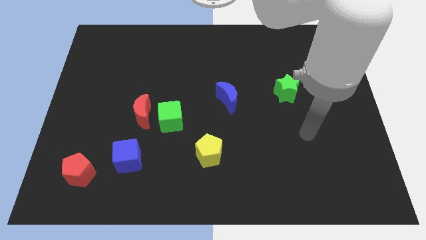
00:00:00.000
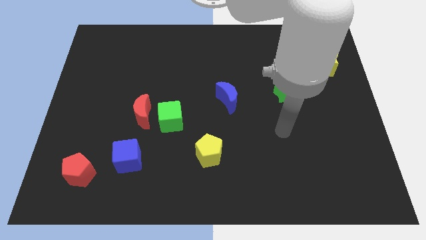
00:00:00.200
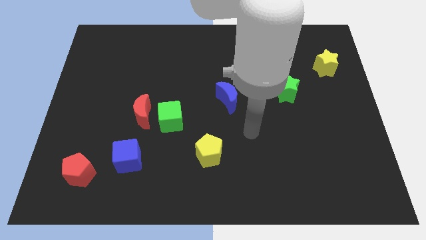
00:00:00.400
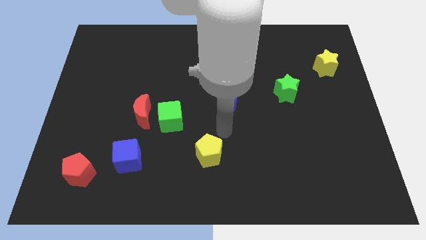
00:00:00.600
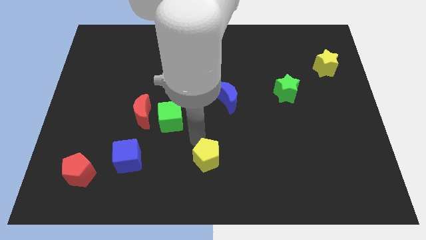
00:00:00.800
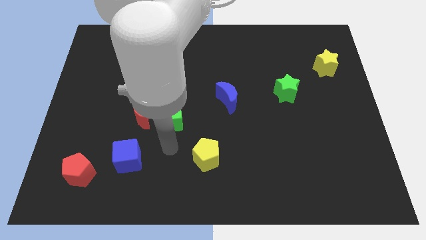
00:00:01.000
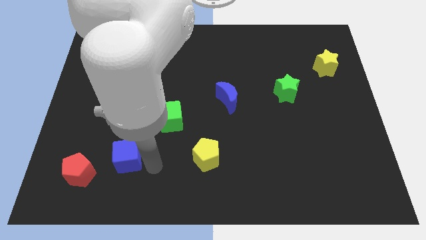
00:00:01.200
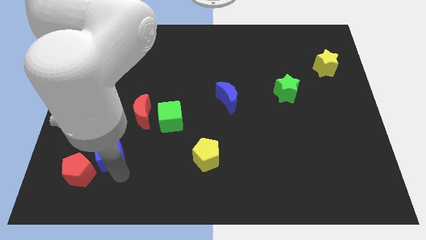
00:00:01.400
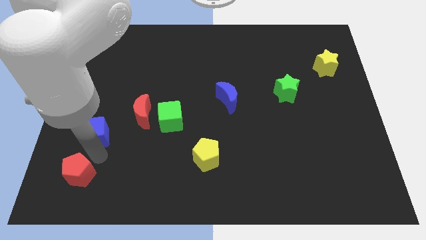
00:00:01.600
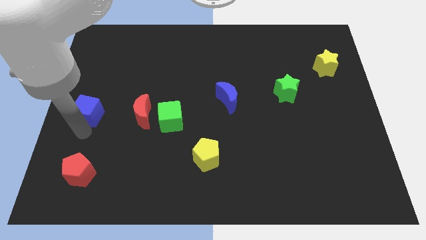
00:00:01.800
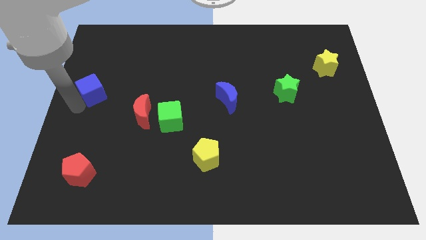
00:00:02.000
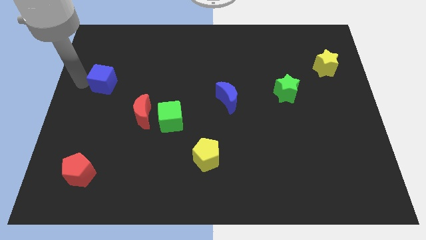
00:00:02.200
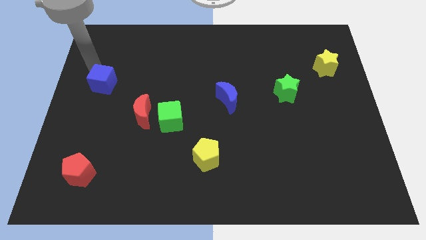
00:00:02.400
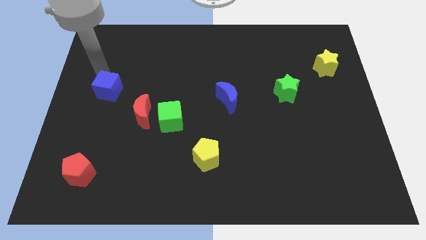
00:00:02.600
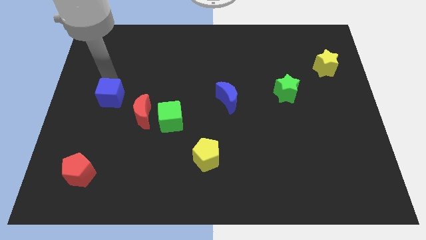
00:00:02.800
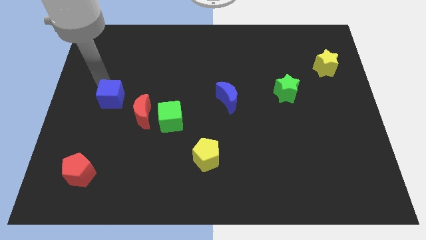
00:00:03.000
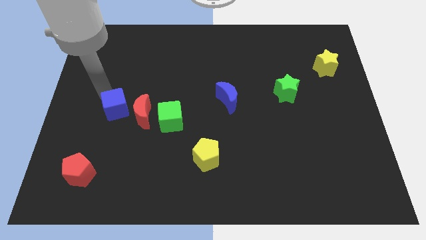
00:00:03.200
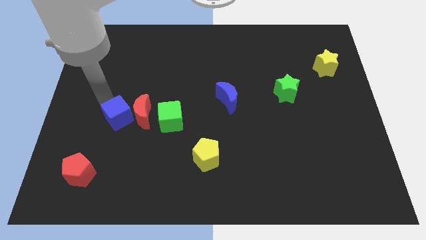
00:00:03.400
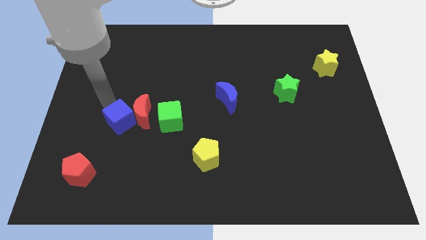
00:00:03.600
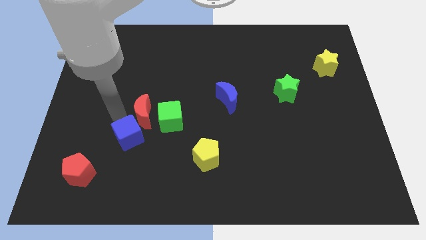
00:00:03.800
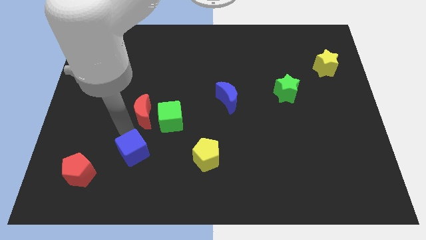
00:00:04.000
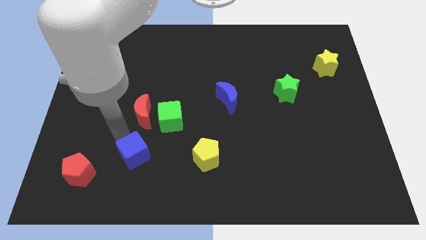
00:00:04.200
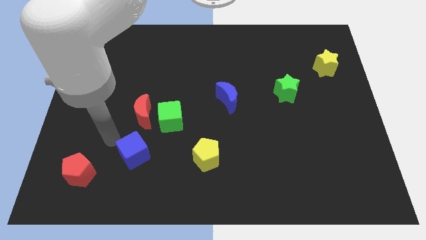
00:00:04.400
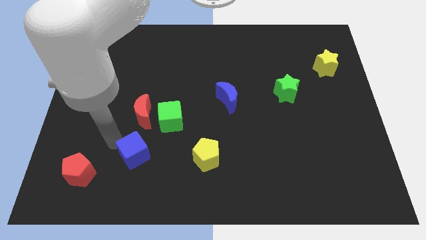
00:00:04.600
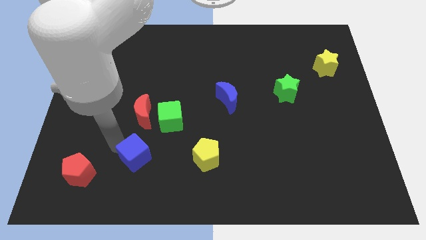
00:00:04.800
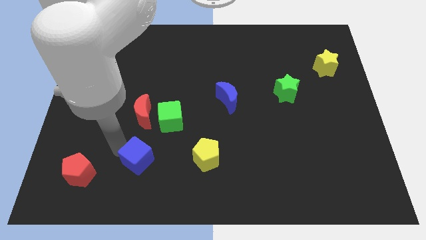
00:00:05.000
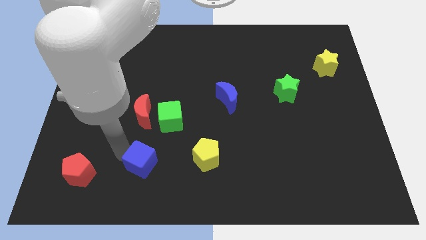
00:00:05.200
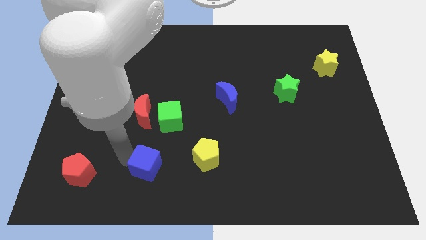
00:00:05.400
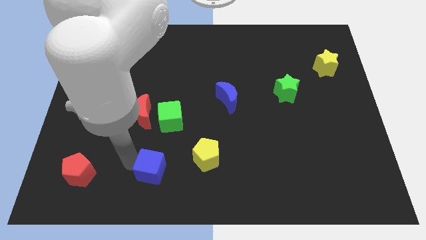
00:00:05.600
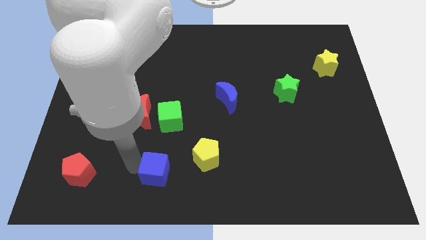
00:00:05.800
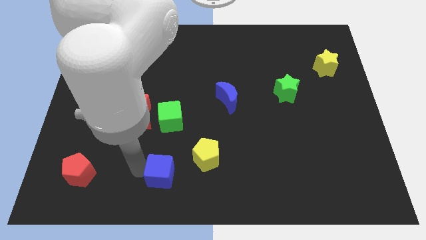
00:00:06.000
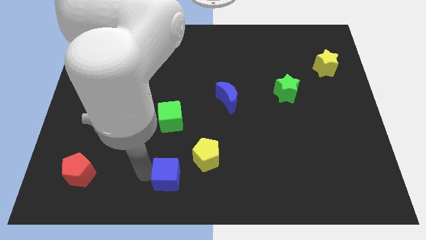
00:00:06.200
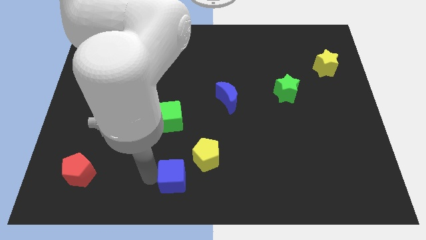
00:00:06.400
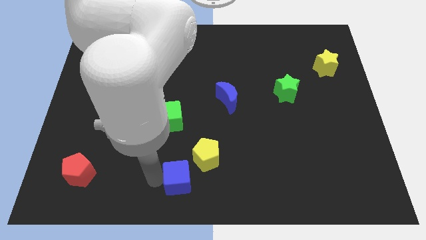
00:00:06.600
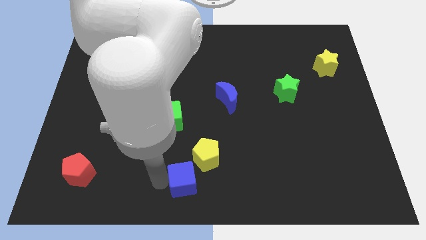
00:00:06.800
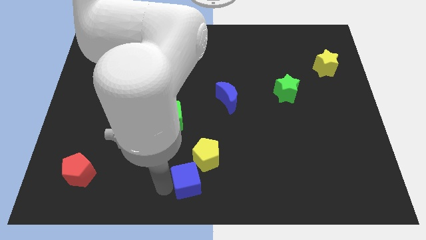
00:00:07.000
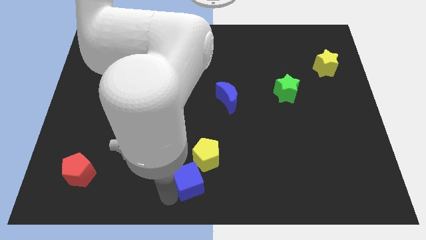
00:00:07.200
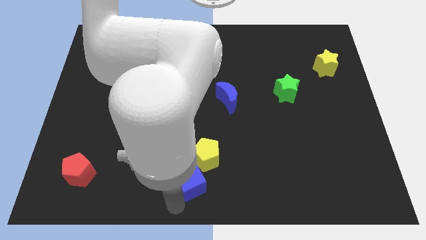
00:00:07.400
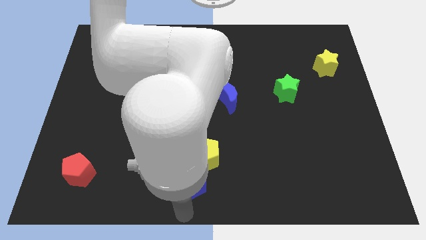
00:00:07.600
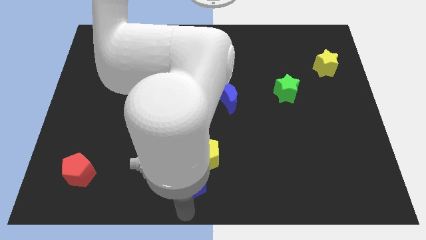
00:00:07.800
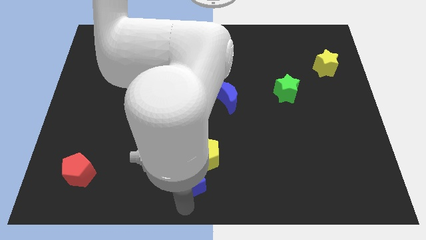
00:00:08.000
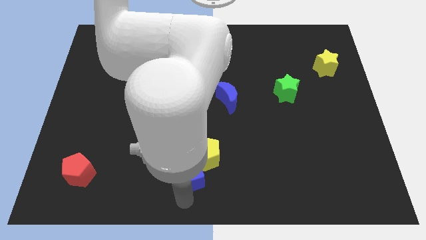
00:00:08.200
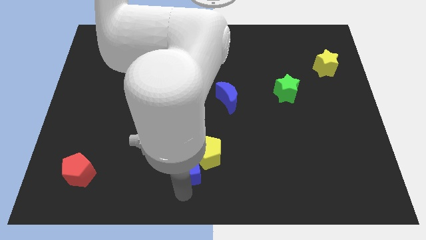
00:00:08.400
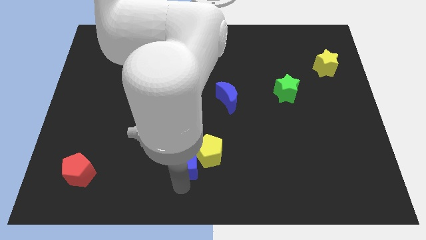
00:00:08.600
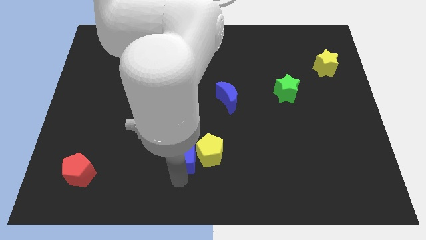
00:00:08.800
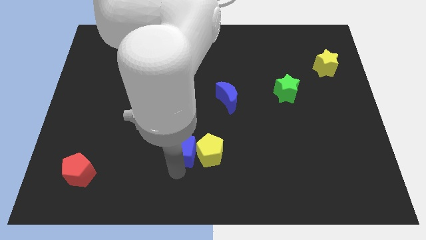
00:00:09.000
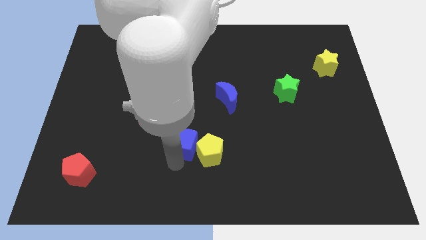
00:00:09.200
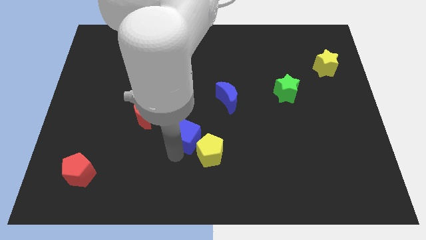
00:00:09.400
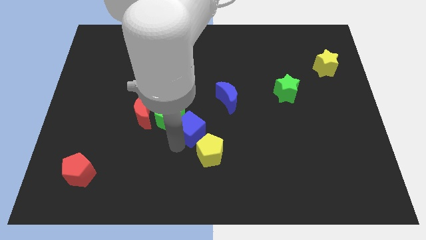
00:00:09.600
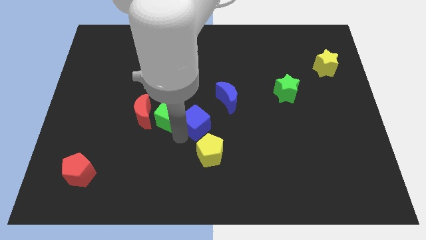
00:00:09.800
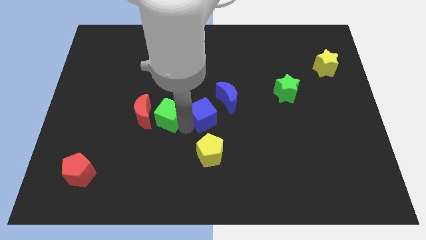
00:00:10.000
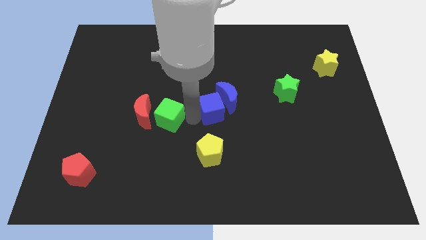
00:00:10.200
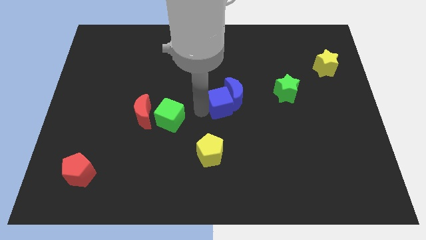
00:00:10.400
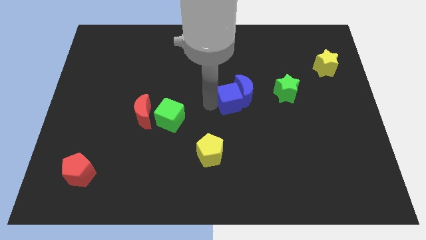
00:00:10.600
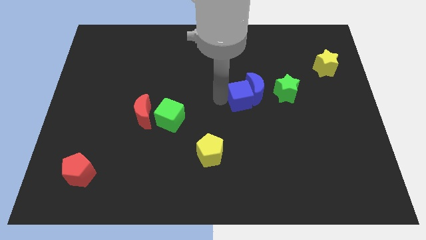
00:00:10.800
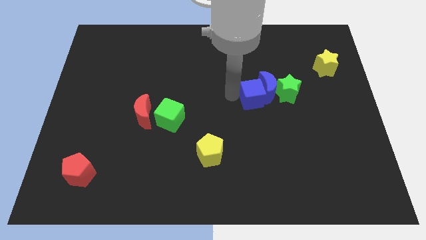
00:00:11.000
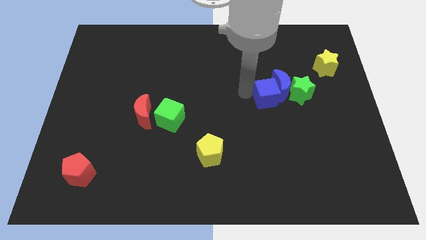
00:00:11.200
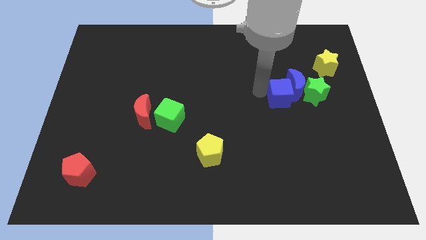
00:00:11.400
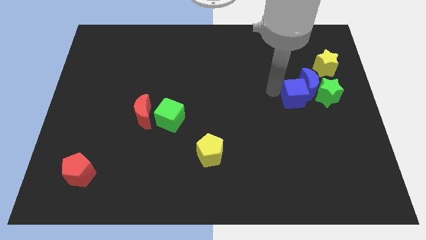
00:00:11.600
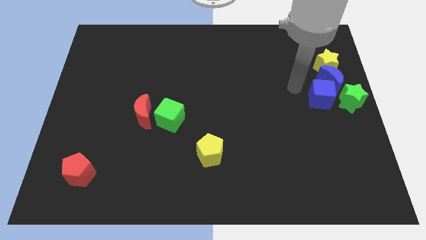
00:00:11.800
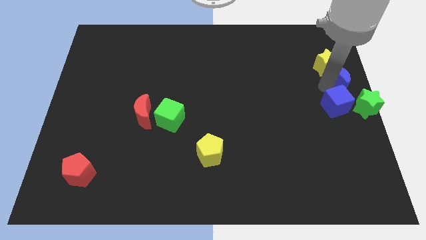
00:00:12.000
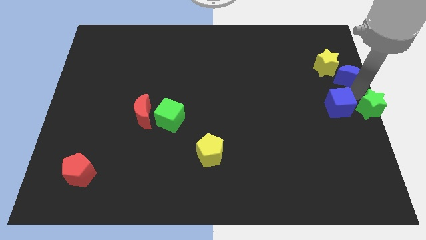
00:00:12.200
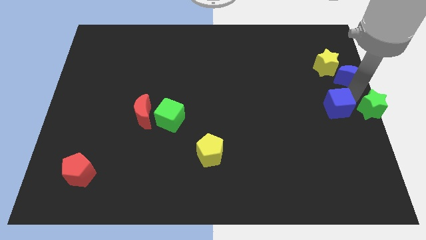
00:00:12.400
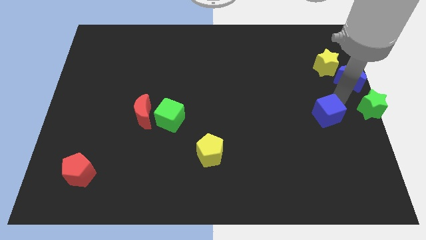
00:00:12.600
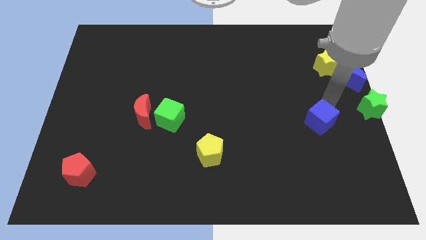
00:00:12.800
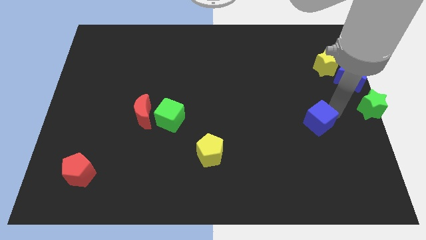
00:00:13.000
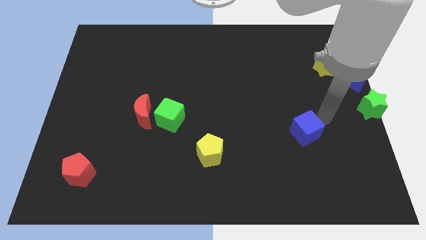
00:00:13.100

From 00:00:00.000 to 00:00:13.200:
move the blue cube to the right

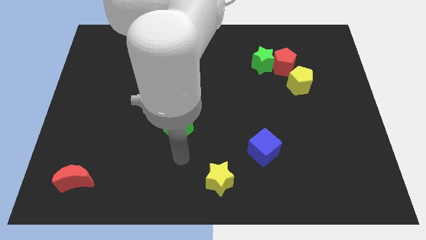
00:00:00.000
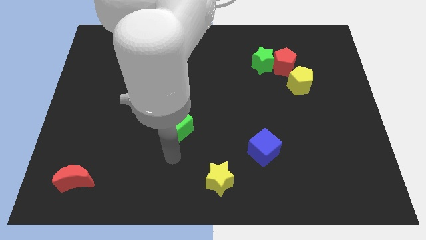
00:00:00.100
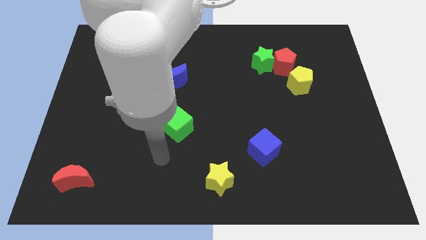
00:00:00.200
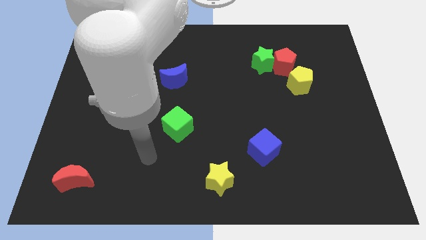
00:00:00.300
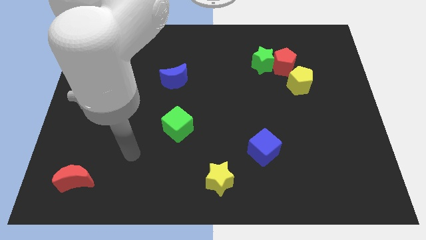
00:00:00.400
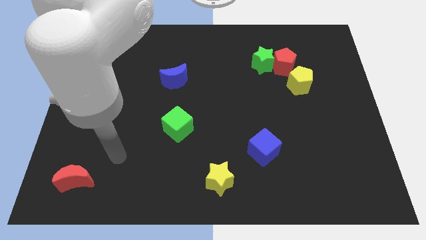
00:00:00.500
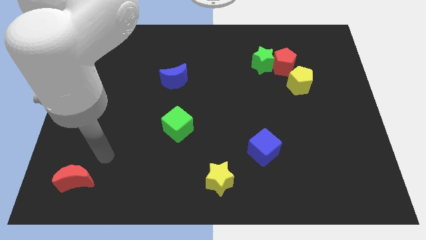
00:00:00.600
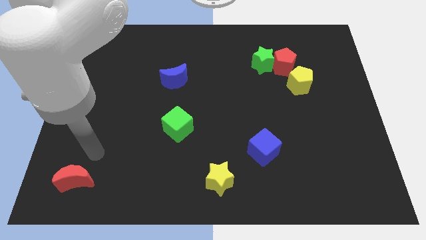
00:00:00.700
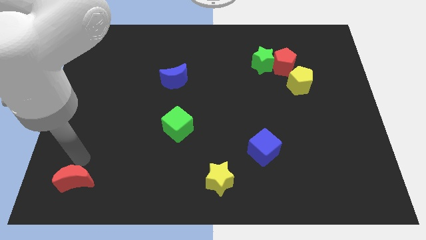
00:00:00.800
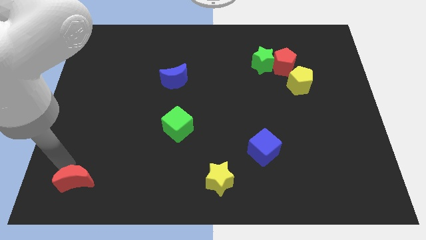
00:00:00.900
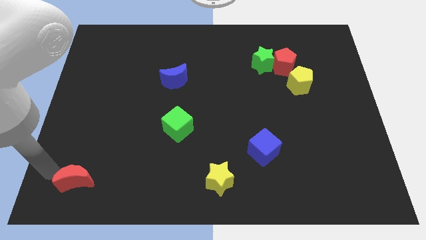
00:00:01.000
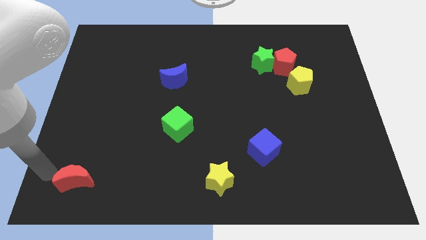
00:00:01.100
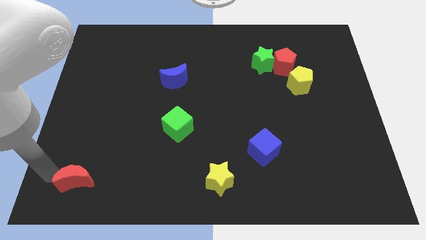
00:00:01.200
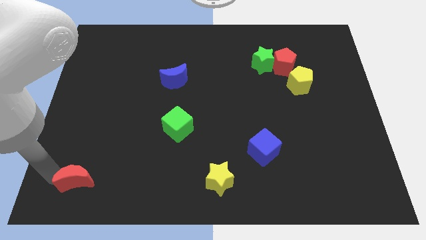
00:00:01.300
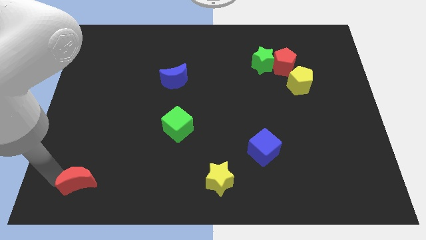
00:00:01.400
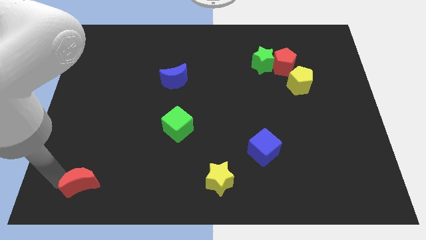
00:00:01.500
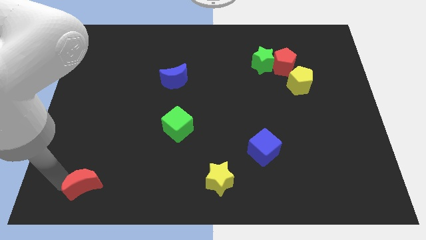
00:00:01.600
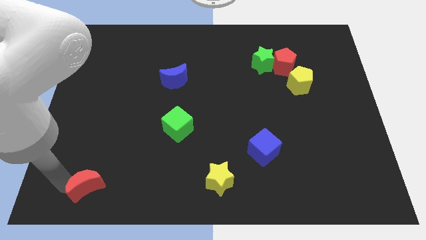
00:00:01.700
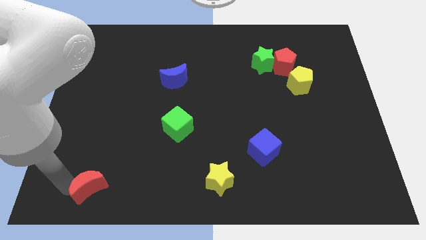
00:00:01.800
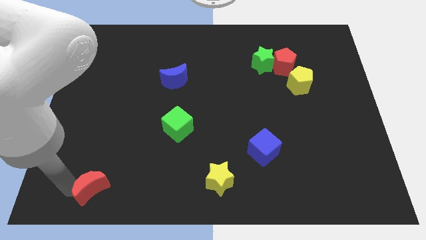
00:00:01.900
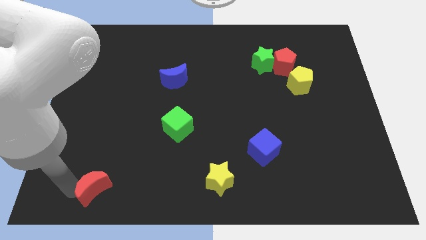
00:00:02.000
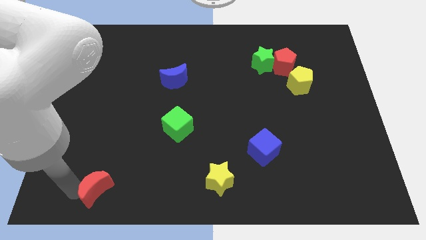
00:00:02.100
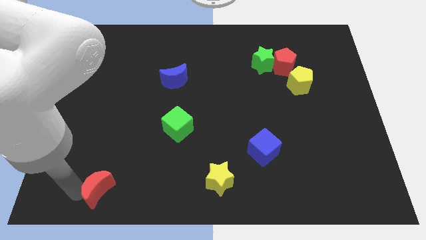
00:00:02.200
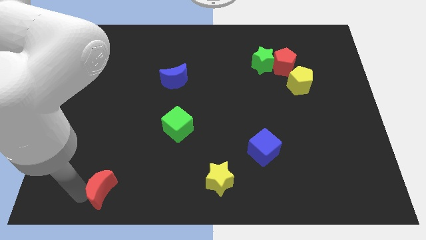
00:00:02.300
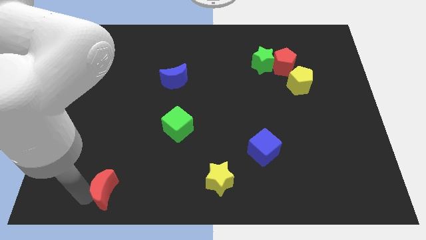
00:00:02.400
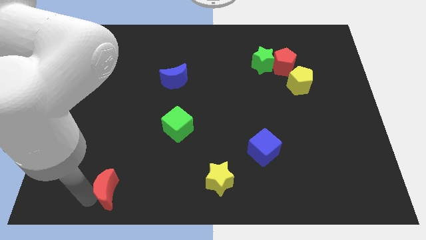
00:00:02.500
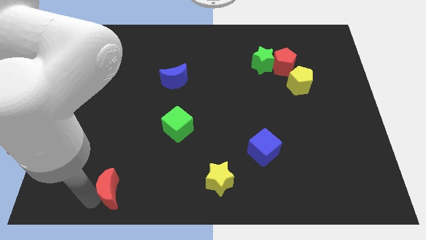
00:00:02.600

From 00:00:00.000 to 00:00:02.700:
slightly move the red moon right
